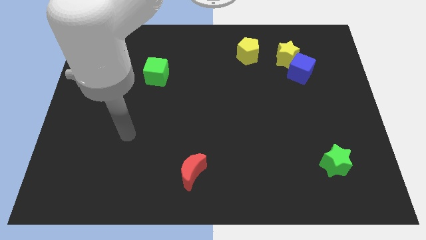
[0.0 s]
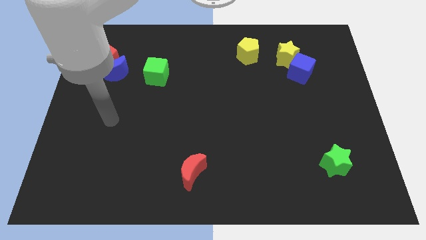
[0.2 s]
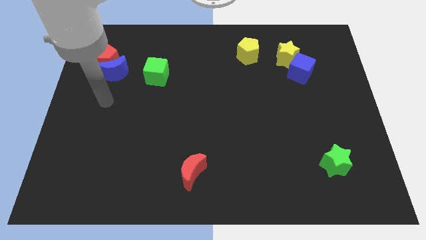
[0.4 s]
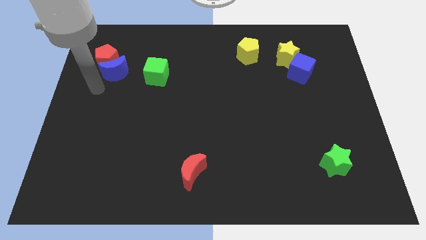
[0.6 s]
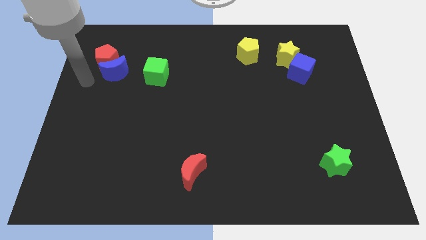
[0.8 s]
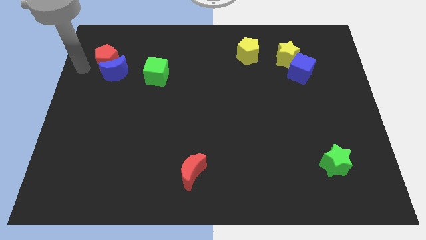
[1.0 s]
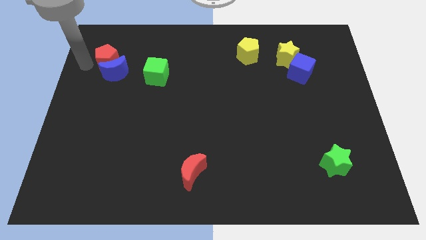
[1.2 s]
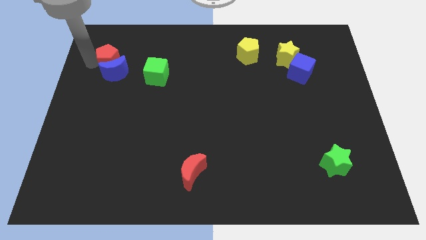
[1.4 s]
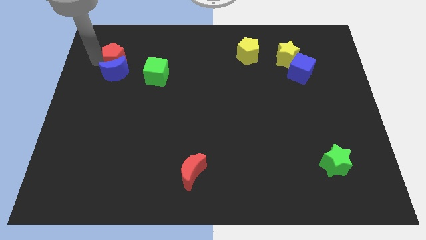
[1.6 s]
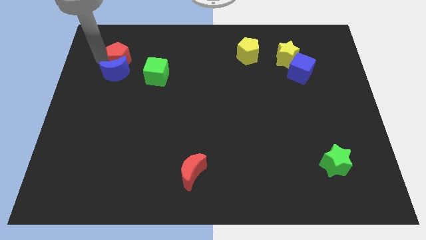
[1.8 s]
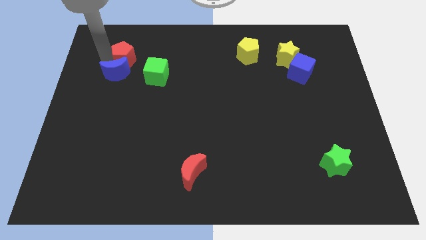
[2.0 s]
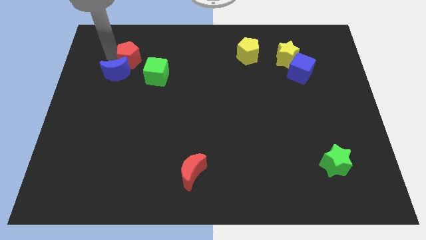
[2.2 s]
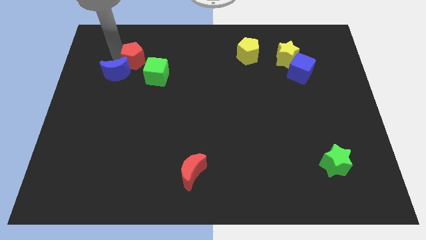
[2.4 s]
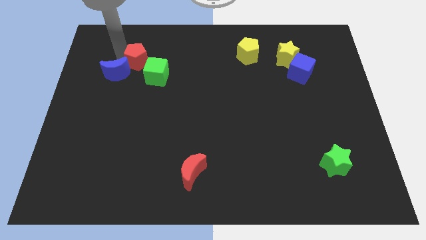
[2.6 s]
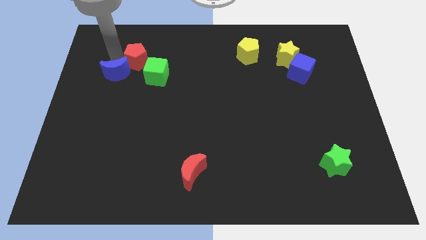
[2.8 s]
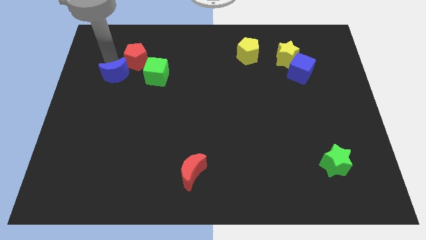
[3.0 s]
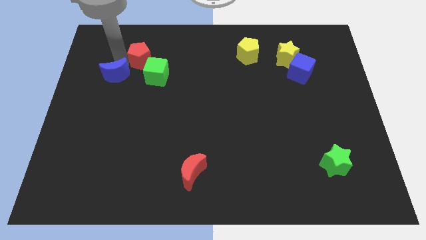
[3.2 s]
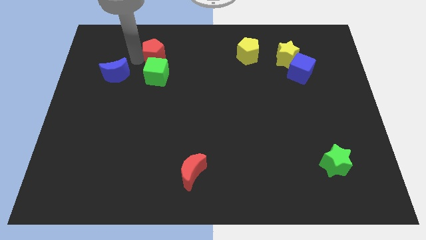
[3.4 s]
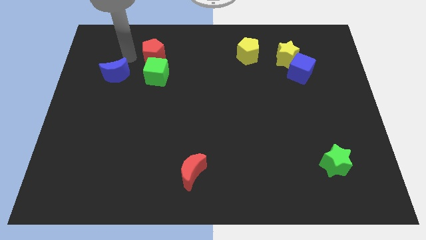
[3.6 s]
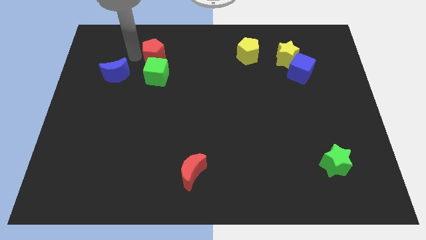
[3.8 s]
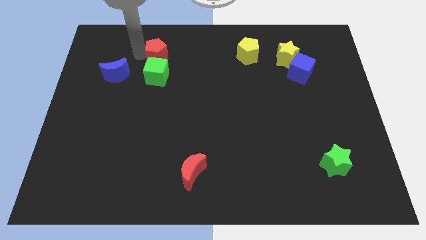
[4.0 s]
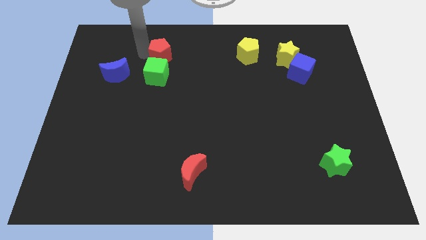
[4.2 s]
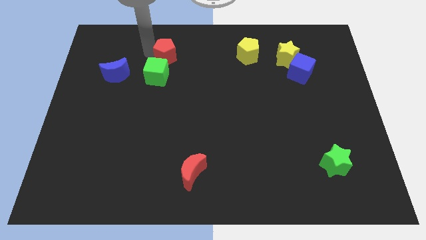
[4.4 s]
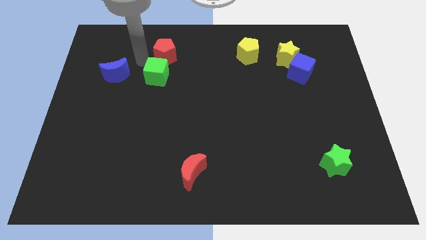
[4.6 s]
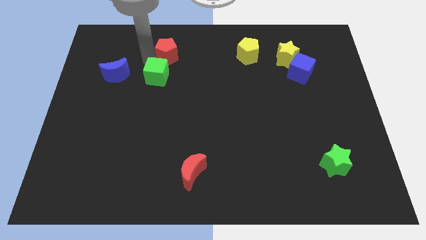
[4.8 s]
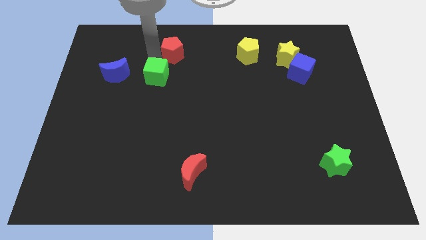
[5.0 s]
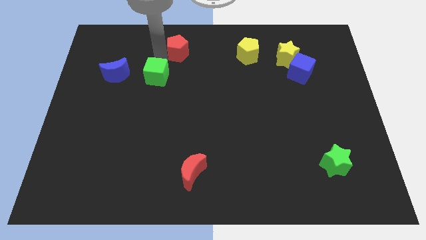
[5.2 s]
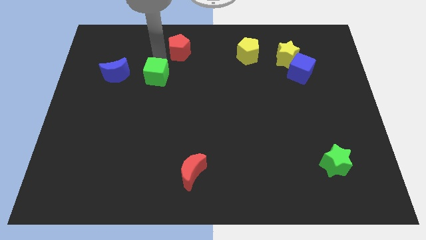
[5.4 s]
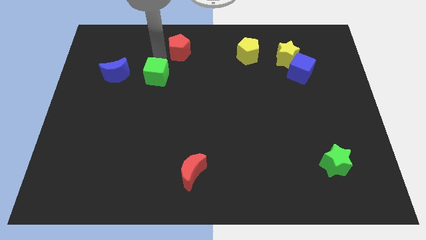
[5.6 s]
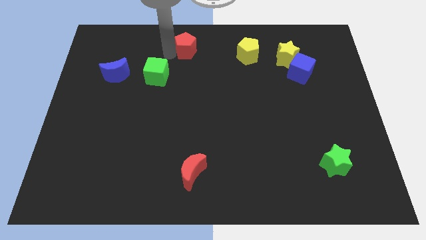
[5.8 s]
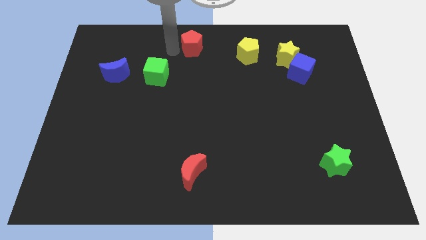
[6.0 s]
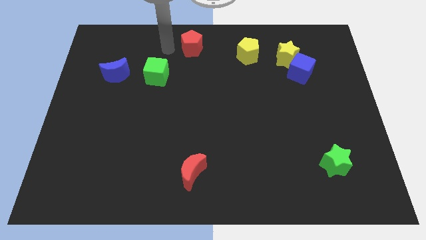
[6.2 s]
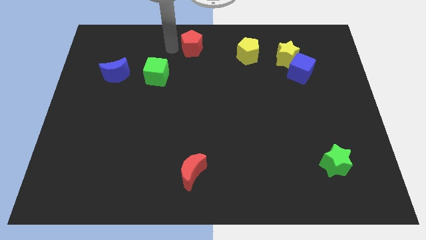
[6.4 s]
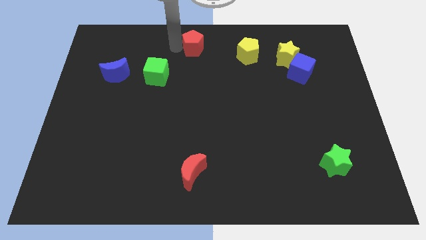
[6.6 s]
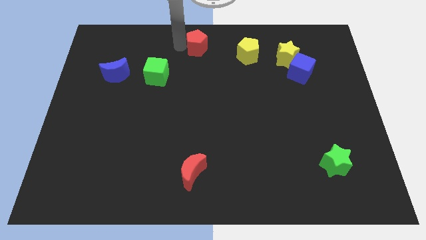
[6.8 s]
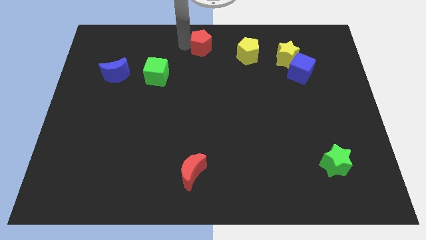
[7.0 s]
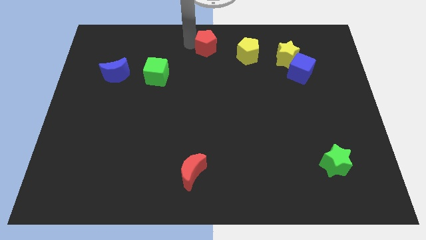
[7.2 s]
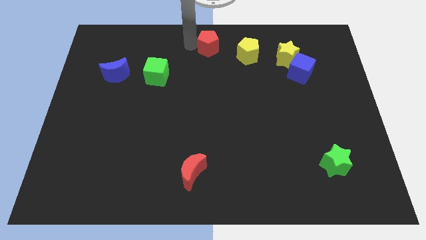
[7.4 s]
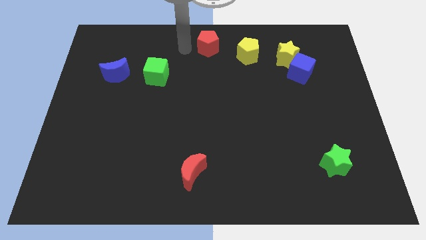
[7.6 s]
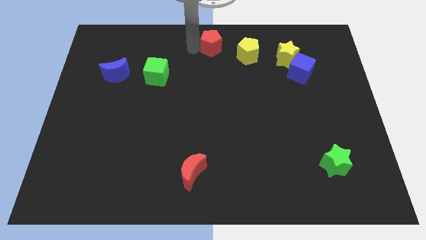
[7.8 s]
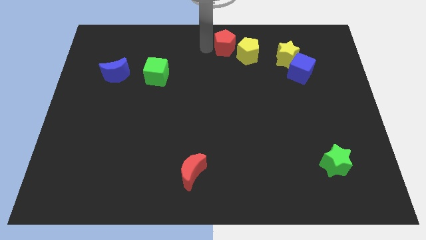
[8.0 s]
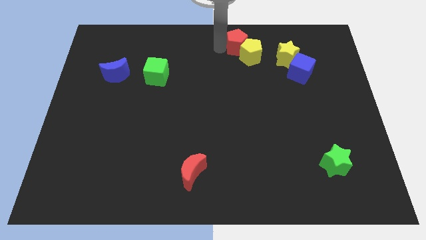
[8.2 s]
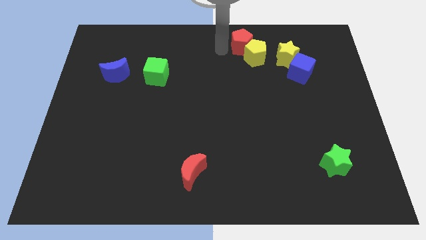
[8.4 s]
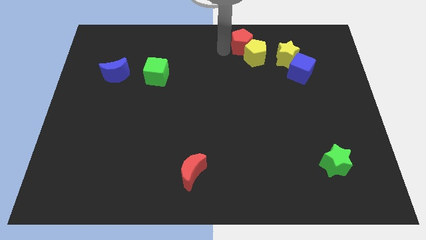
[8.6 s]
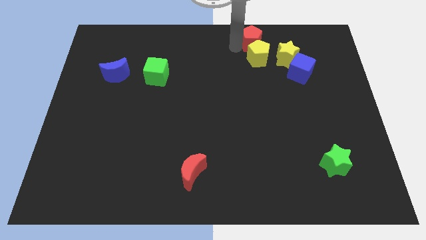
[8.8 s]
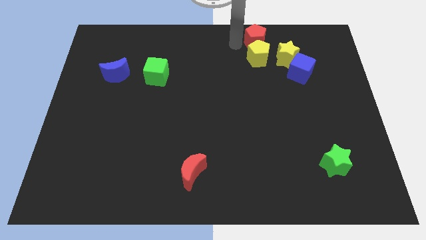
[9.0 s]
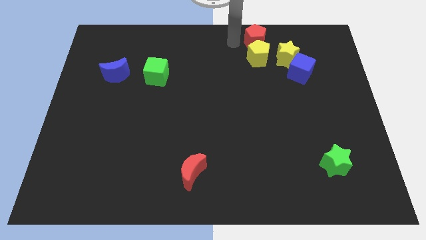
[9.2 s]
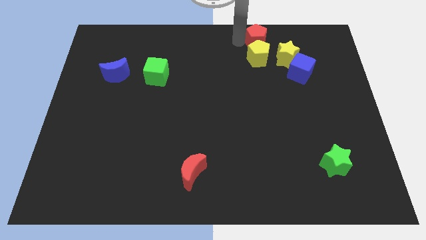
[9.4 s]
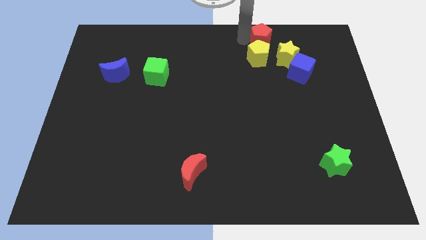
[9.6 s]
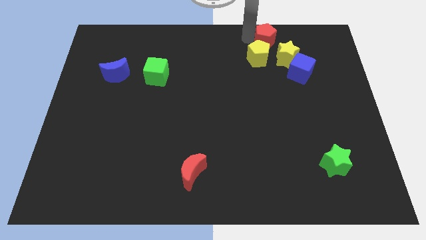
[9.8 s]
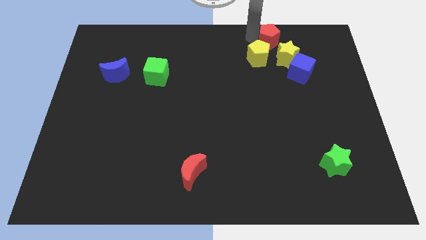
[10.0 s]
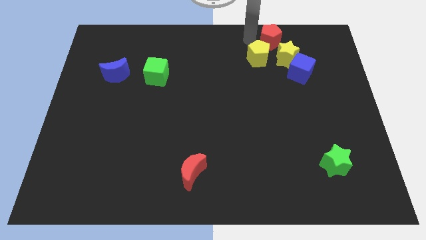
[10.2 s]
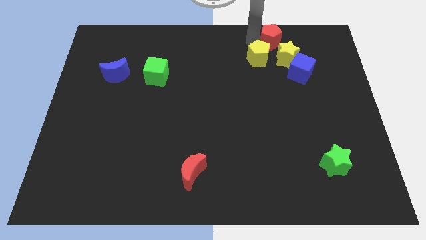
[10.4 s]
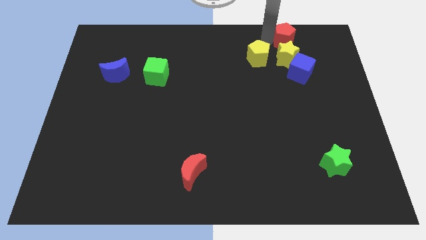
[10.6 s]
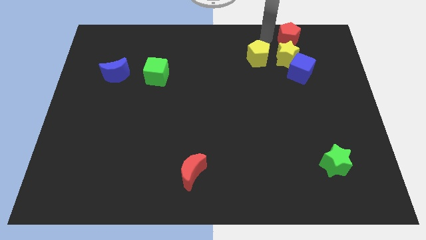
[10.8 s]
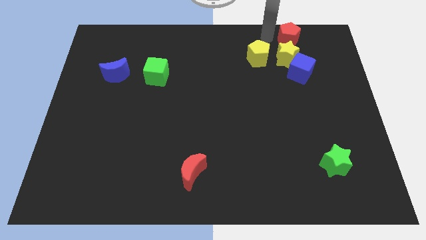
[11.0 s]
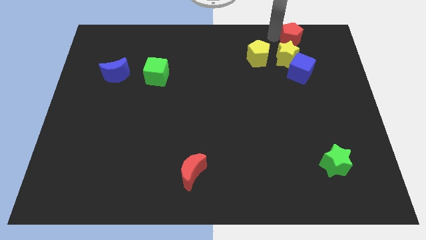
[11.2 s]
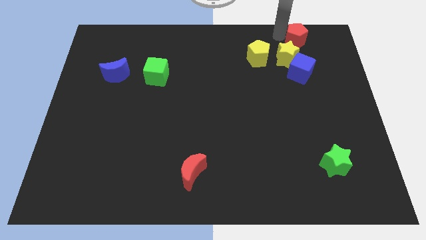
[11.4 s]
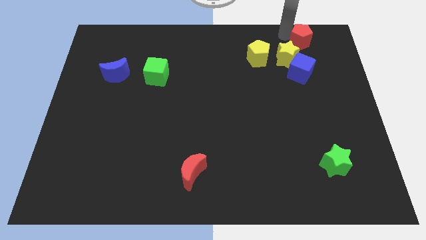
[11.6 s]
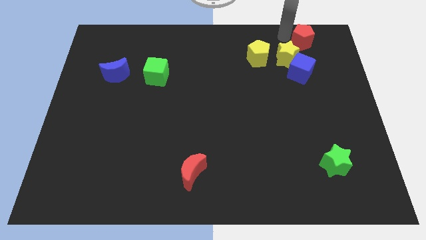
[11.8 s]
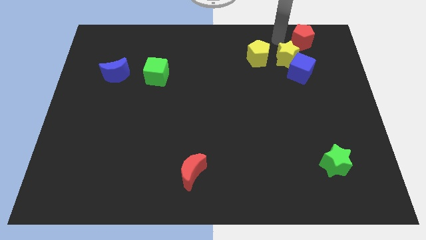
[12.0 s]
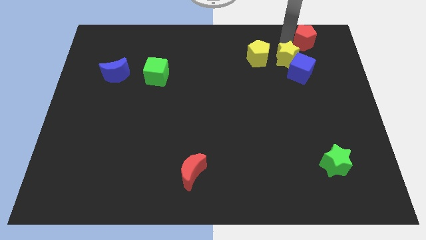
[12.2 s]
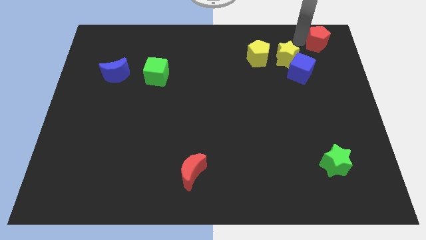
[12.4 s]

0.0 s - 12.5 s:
put the red pentagon to the top right corner
